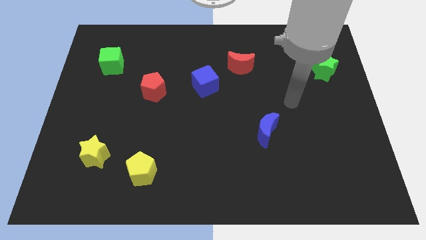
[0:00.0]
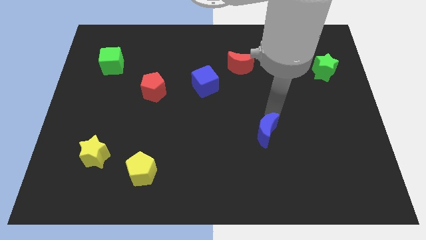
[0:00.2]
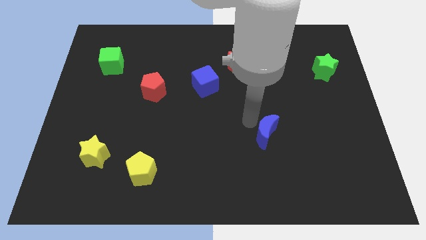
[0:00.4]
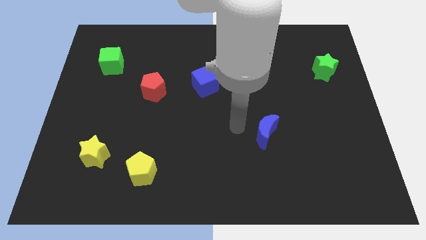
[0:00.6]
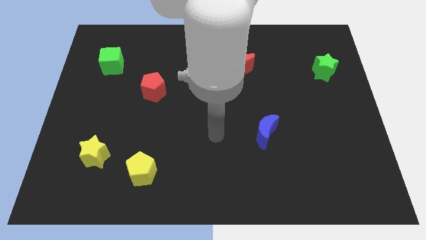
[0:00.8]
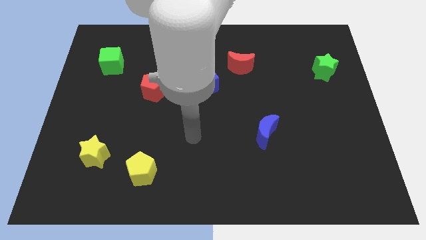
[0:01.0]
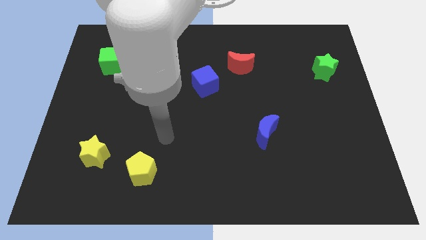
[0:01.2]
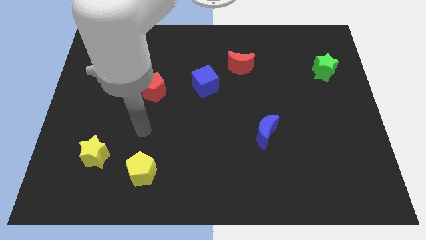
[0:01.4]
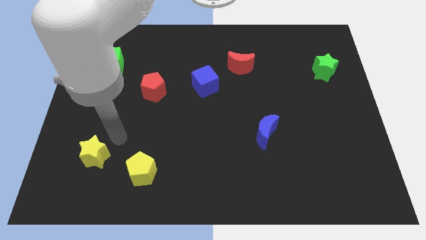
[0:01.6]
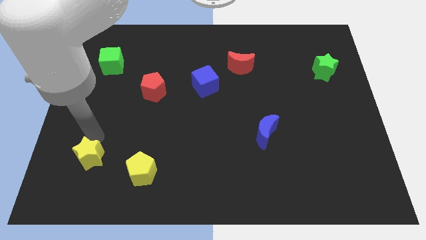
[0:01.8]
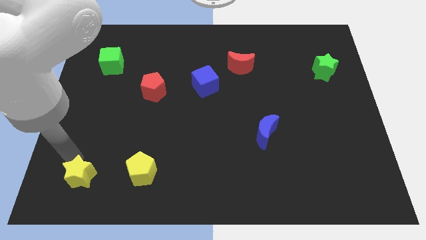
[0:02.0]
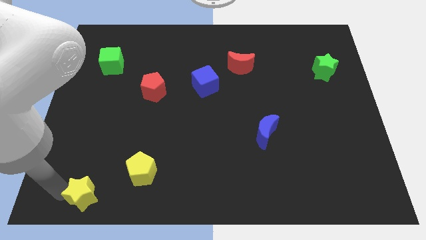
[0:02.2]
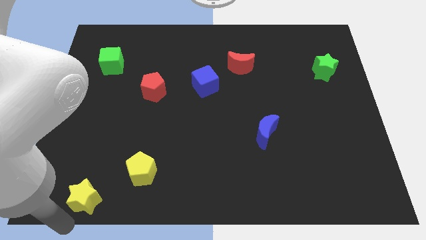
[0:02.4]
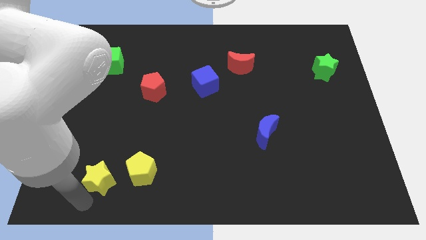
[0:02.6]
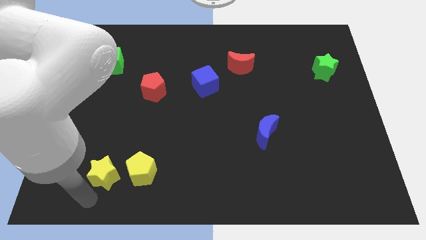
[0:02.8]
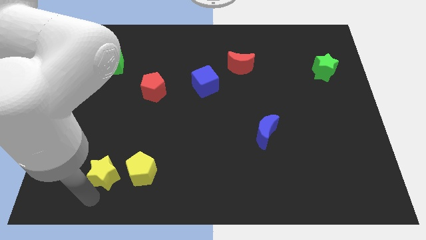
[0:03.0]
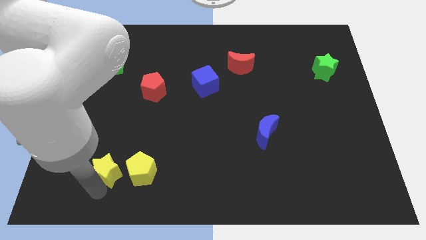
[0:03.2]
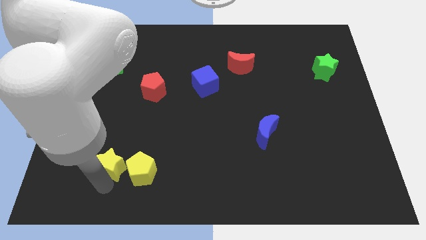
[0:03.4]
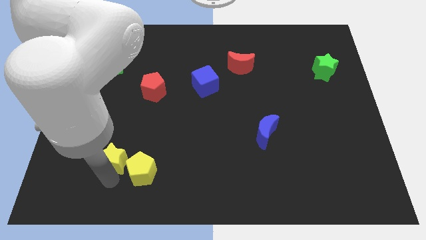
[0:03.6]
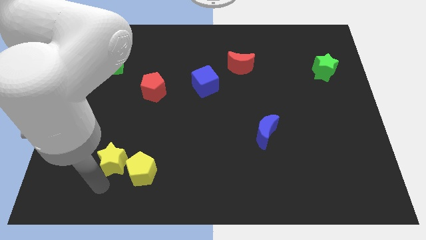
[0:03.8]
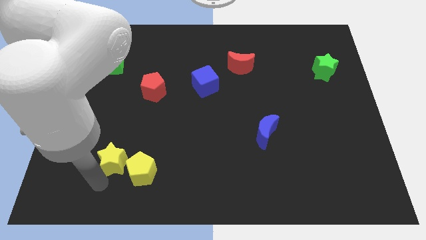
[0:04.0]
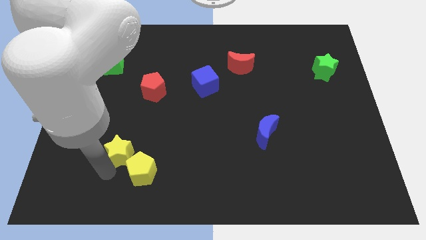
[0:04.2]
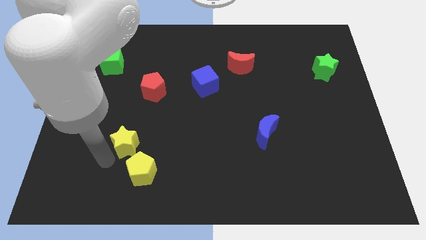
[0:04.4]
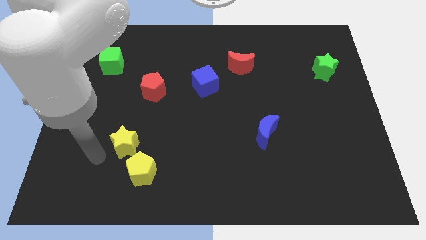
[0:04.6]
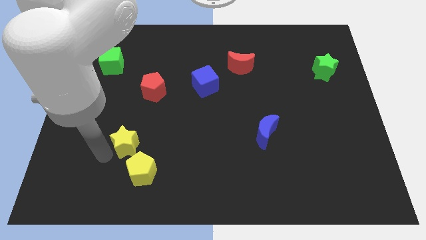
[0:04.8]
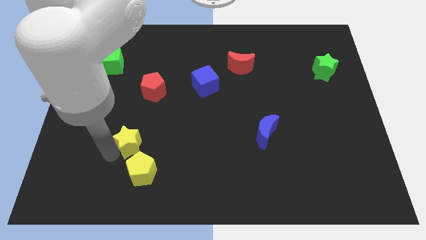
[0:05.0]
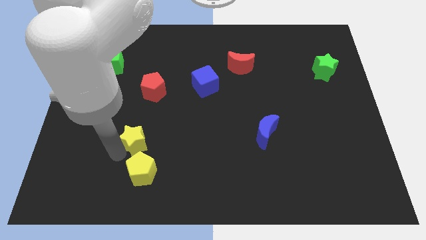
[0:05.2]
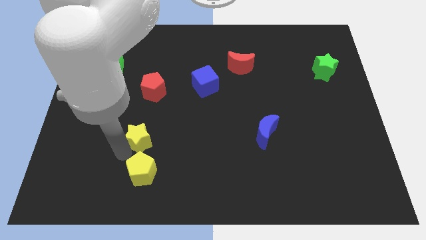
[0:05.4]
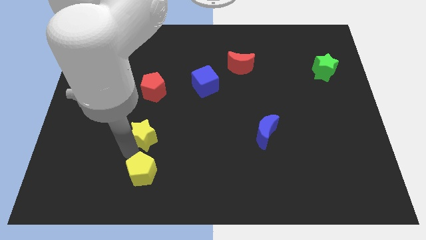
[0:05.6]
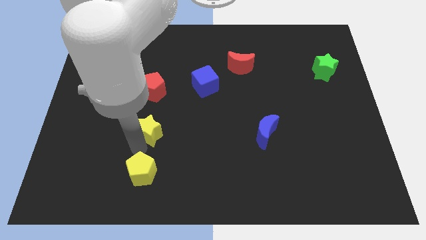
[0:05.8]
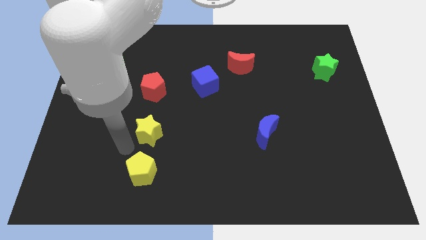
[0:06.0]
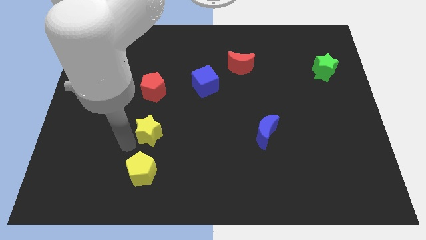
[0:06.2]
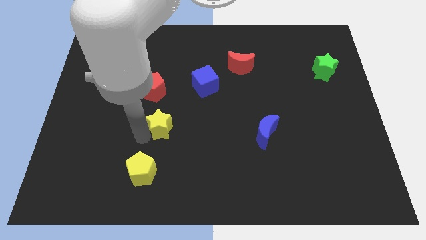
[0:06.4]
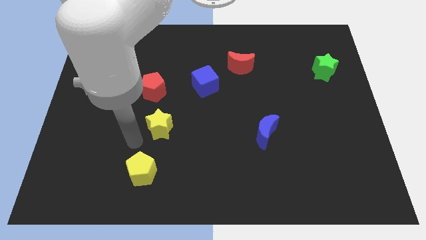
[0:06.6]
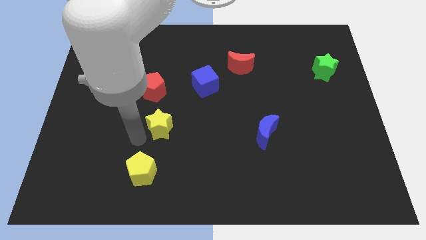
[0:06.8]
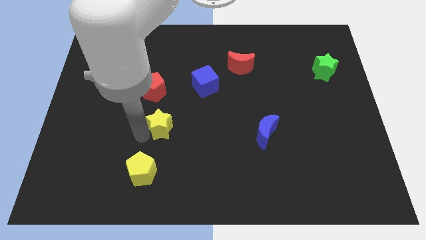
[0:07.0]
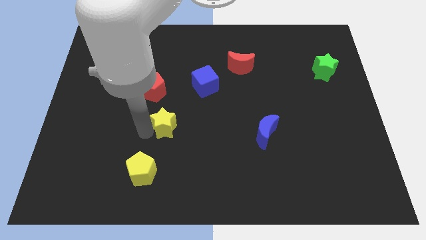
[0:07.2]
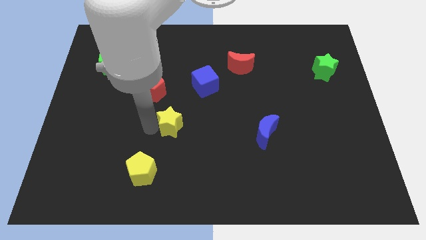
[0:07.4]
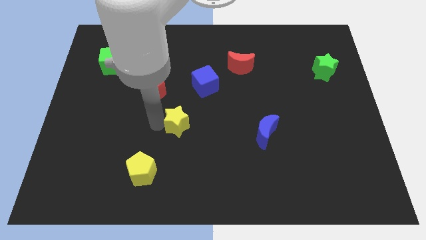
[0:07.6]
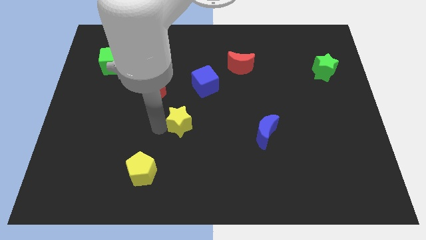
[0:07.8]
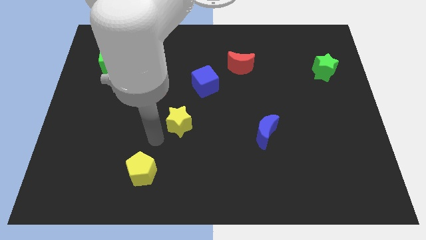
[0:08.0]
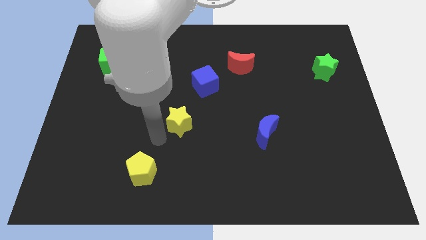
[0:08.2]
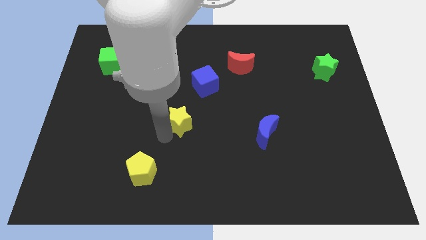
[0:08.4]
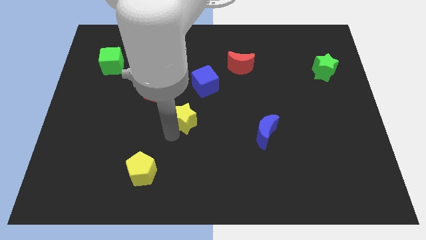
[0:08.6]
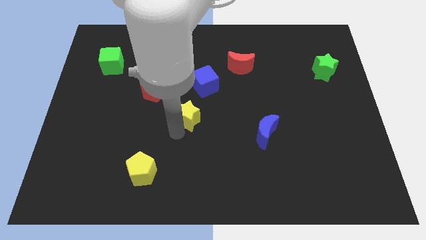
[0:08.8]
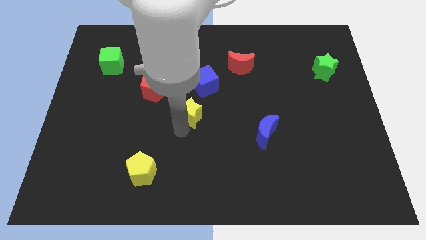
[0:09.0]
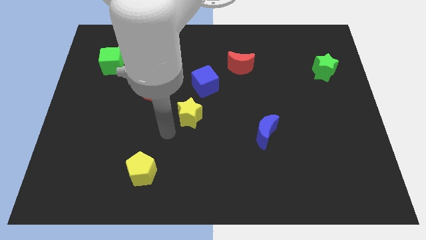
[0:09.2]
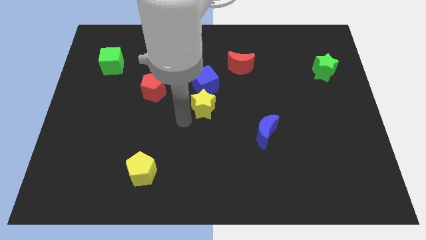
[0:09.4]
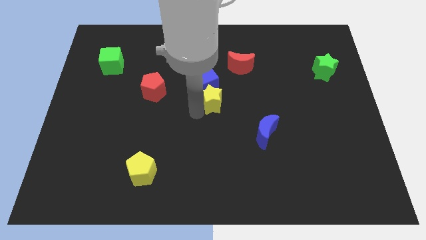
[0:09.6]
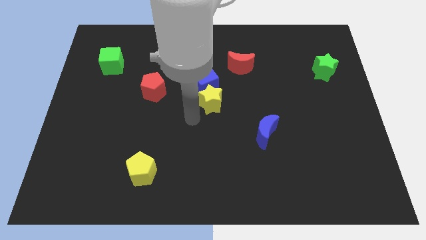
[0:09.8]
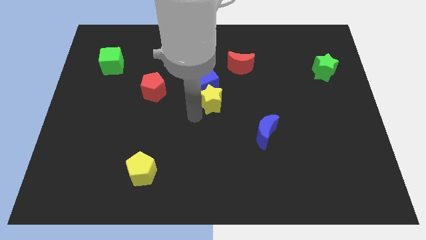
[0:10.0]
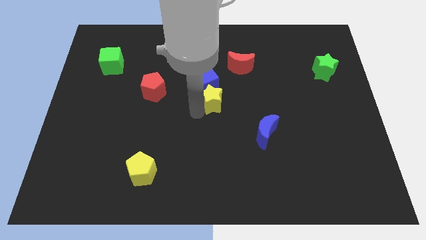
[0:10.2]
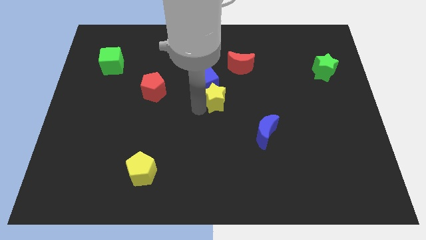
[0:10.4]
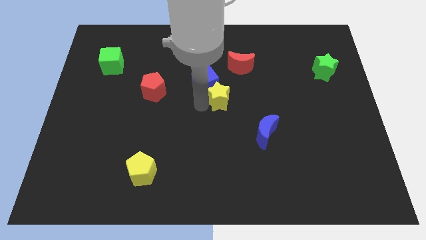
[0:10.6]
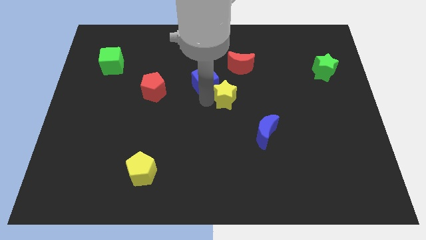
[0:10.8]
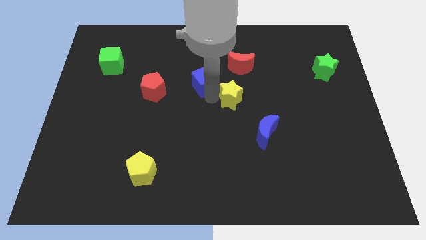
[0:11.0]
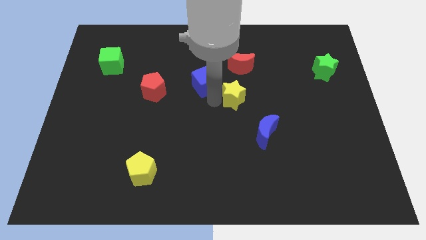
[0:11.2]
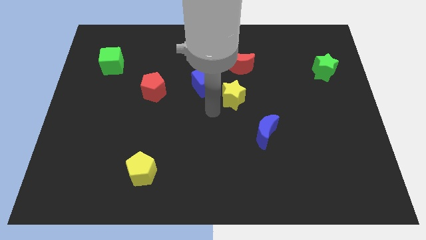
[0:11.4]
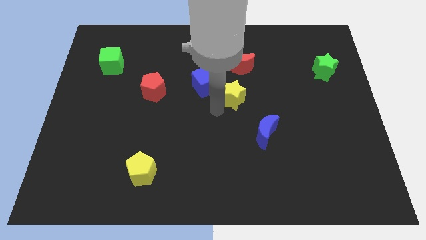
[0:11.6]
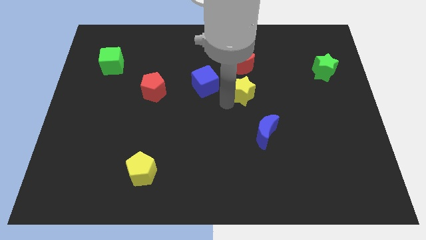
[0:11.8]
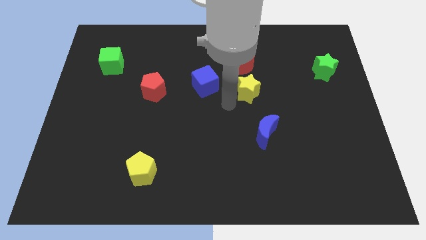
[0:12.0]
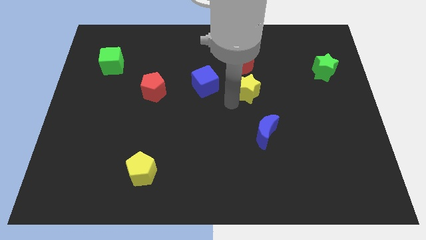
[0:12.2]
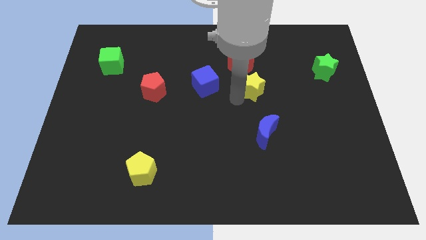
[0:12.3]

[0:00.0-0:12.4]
slide the yellow star diagonally down and to the right of the red moon
